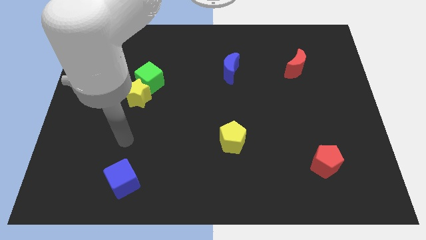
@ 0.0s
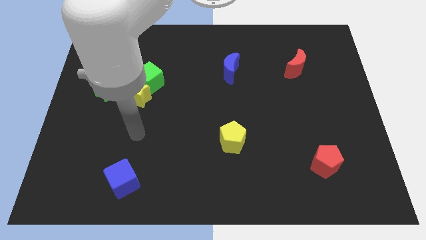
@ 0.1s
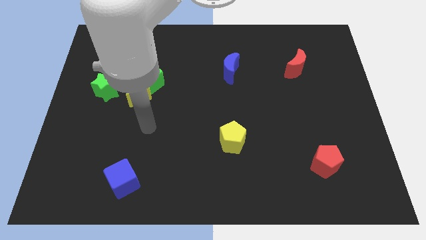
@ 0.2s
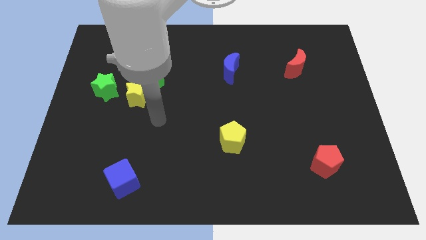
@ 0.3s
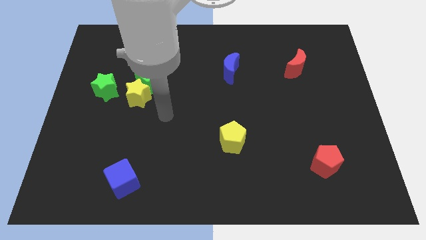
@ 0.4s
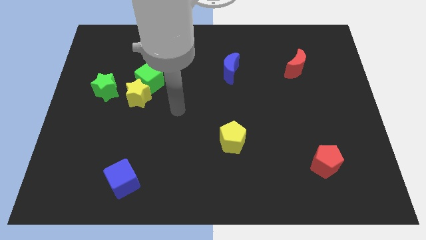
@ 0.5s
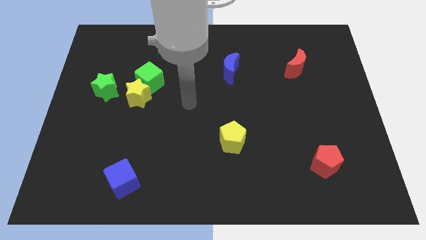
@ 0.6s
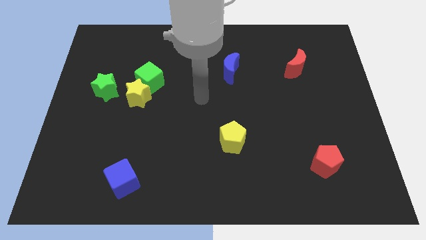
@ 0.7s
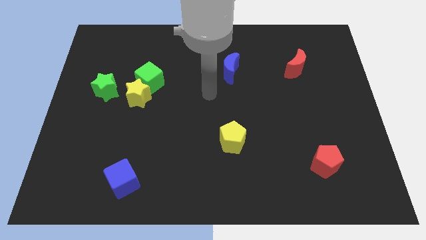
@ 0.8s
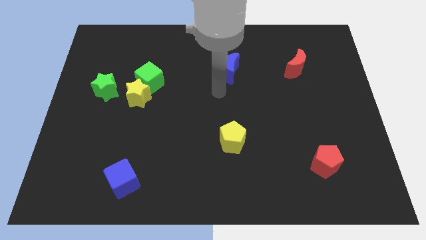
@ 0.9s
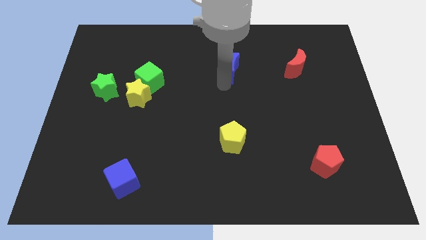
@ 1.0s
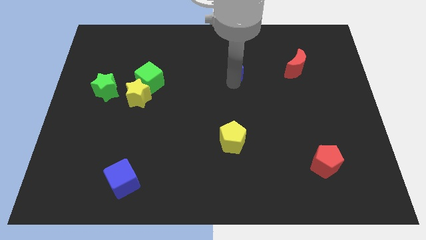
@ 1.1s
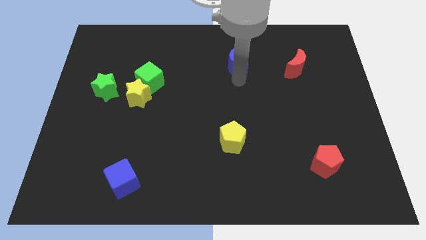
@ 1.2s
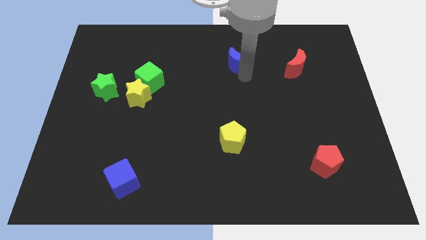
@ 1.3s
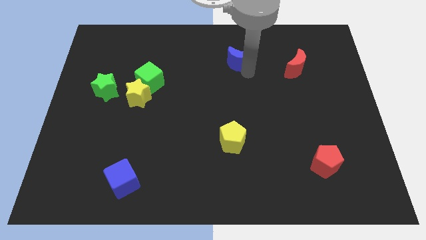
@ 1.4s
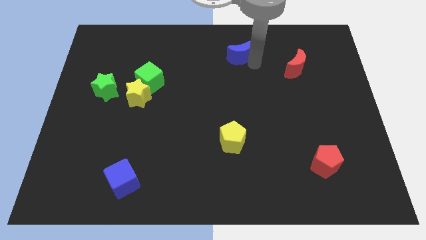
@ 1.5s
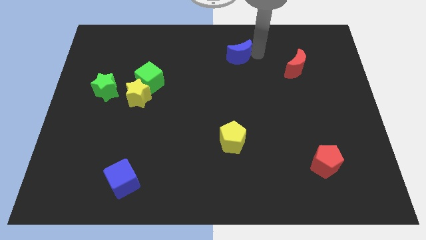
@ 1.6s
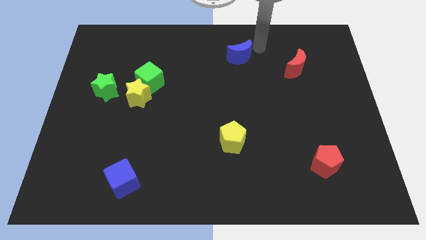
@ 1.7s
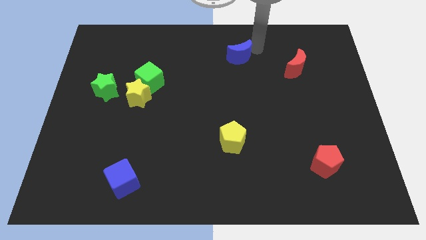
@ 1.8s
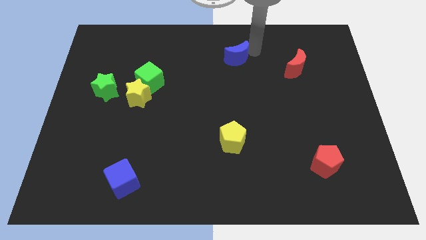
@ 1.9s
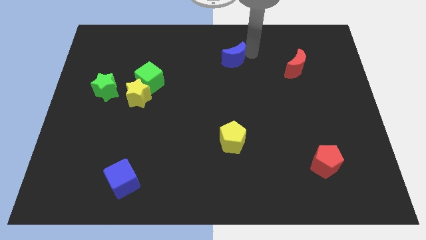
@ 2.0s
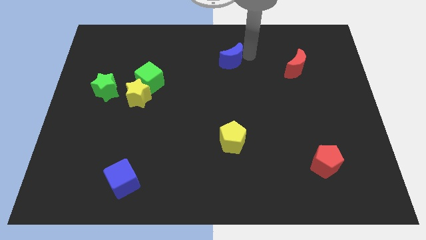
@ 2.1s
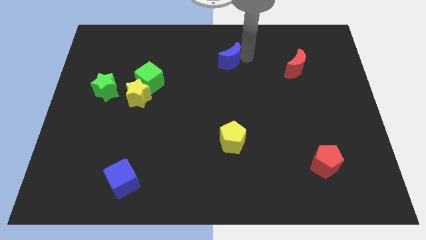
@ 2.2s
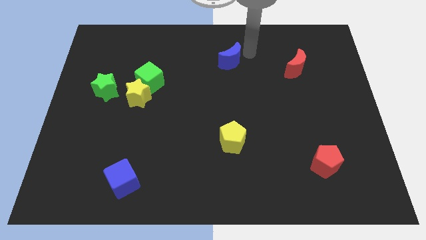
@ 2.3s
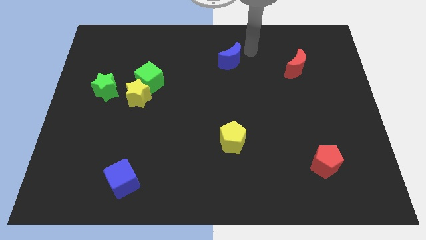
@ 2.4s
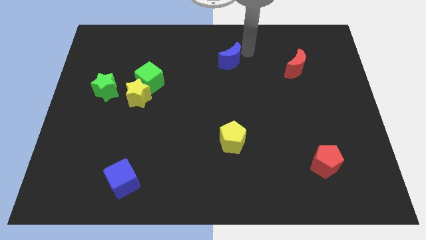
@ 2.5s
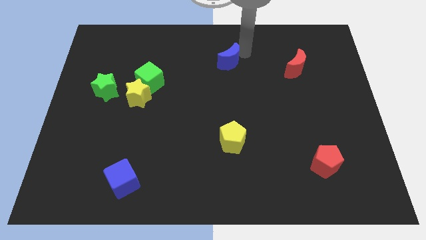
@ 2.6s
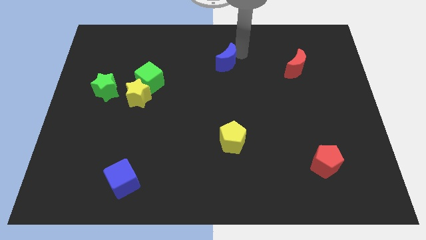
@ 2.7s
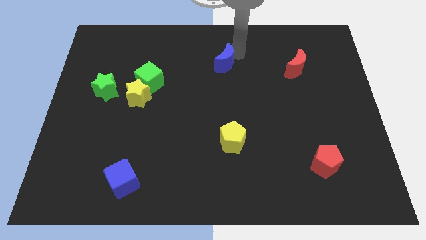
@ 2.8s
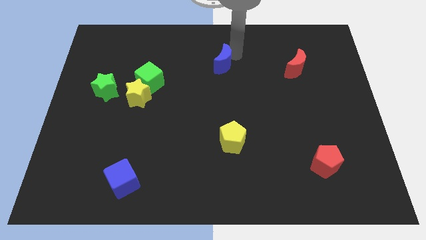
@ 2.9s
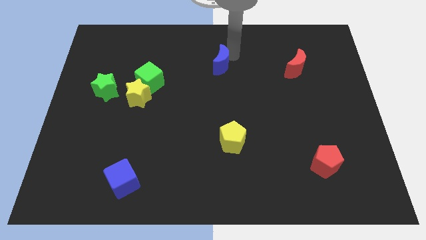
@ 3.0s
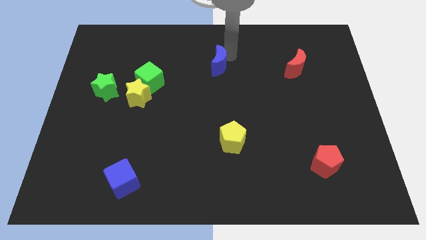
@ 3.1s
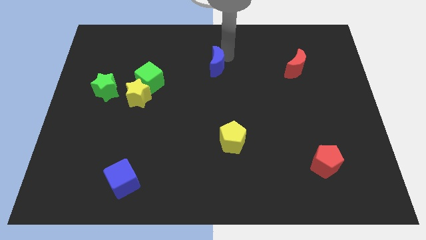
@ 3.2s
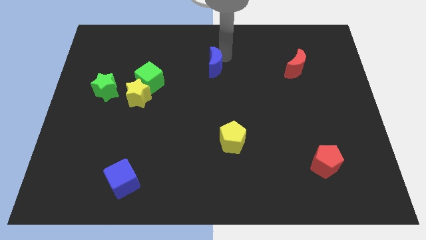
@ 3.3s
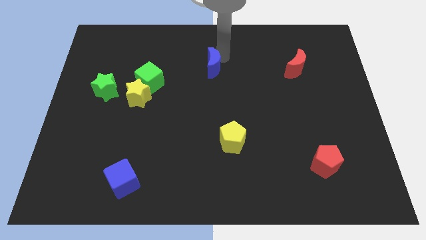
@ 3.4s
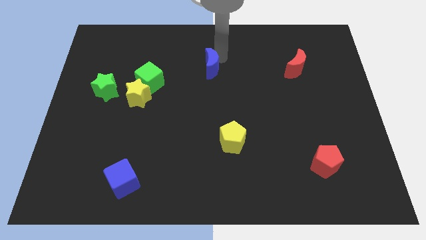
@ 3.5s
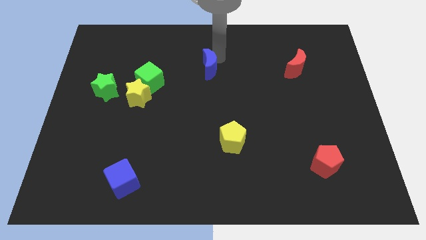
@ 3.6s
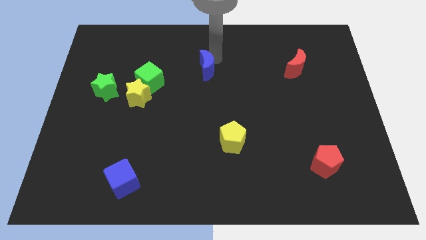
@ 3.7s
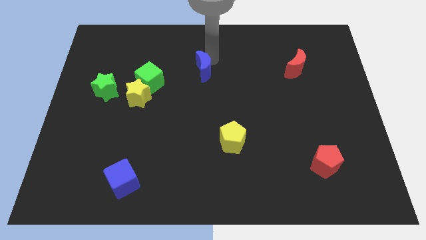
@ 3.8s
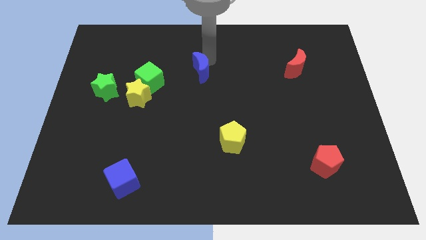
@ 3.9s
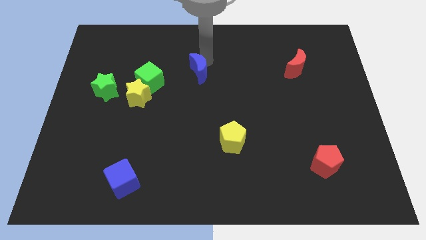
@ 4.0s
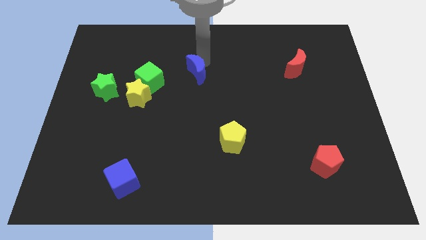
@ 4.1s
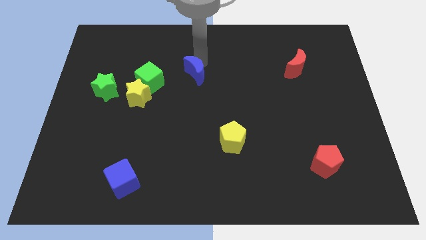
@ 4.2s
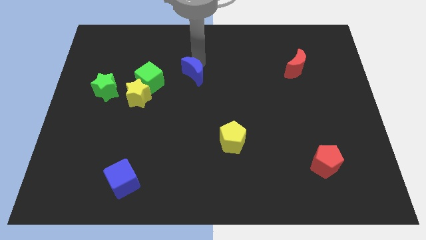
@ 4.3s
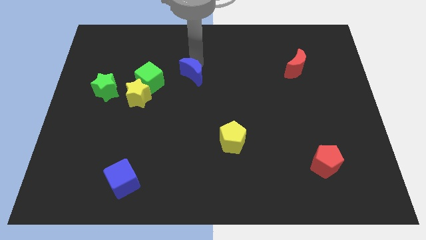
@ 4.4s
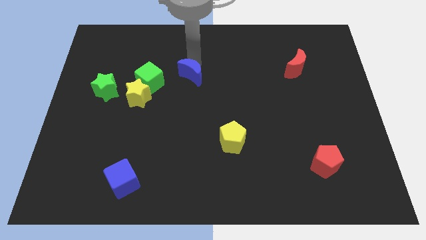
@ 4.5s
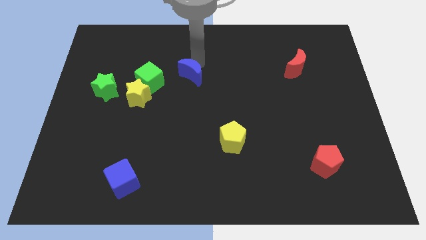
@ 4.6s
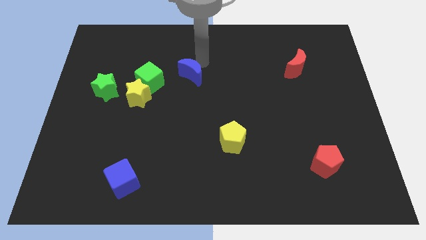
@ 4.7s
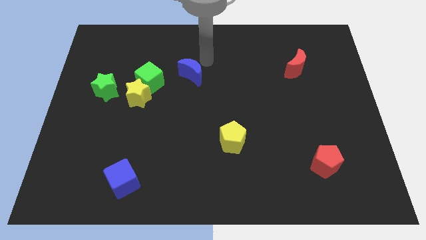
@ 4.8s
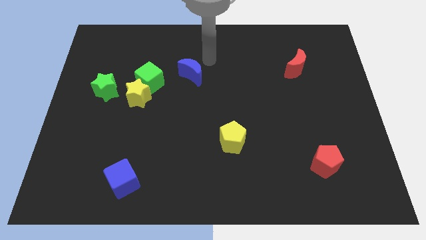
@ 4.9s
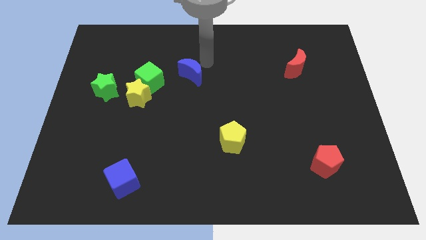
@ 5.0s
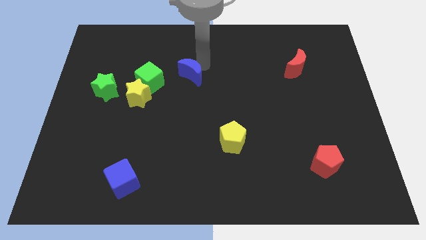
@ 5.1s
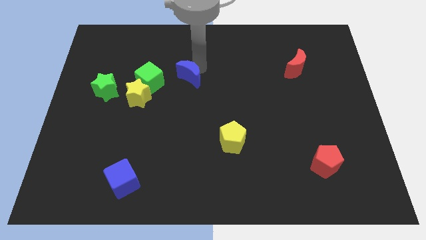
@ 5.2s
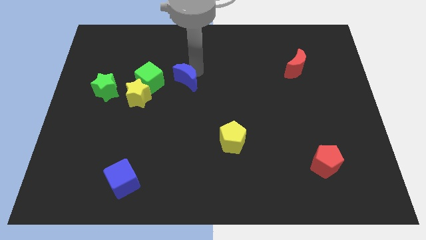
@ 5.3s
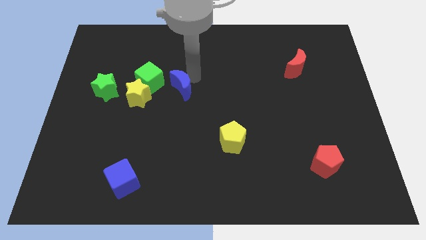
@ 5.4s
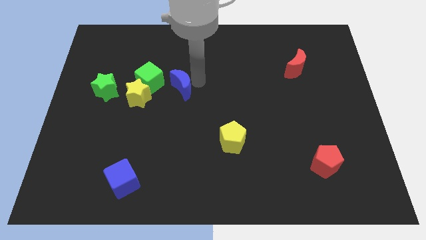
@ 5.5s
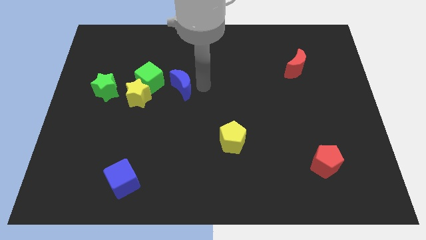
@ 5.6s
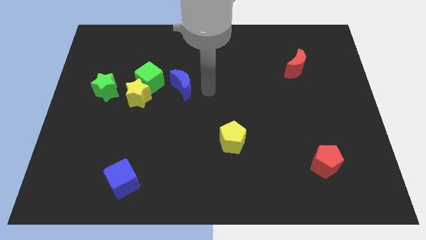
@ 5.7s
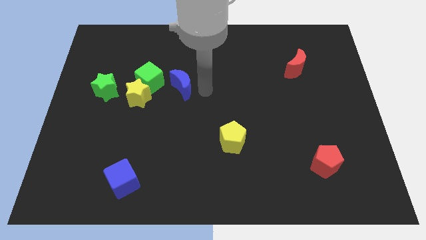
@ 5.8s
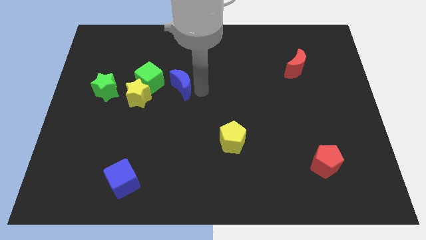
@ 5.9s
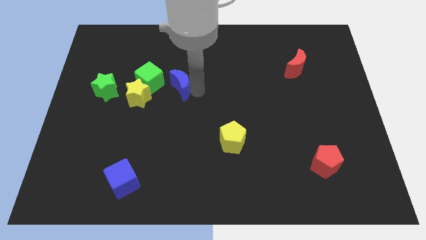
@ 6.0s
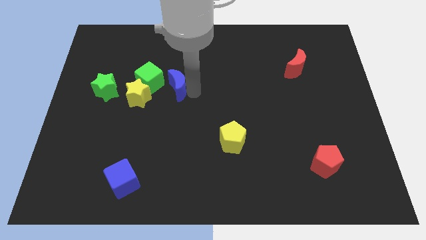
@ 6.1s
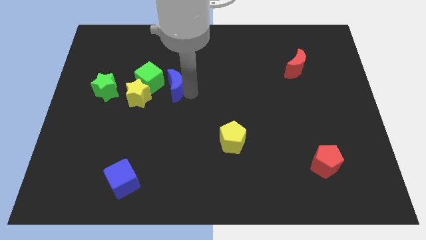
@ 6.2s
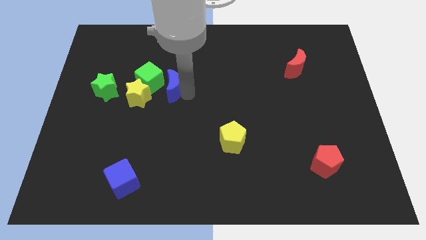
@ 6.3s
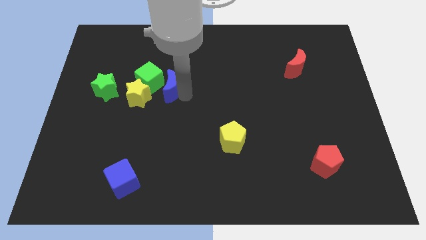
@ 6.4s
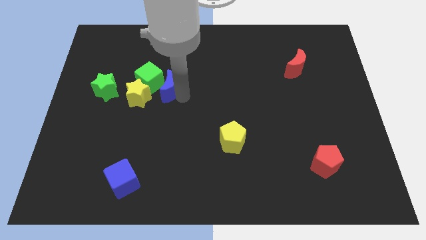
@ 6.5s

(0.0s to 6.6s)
put the blue moon close to the green cube

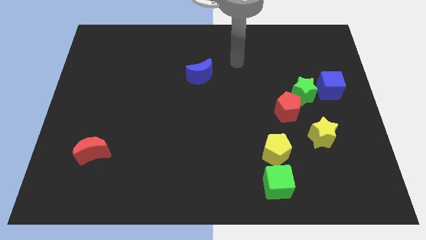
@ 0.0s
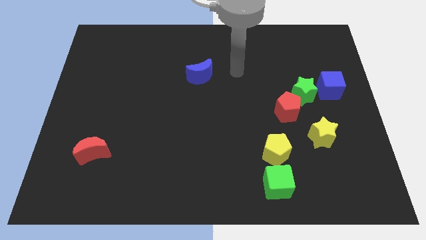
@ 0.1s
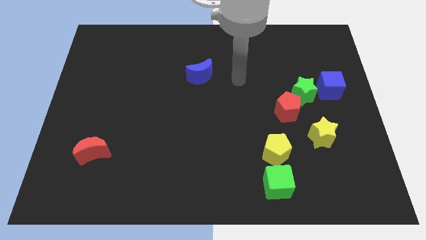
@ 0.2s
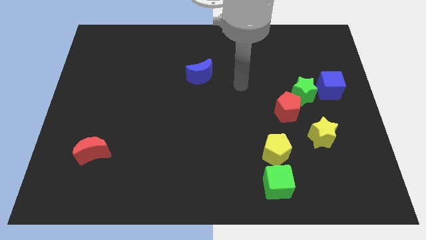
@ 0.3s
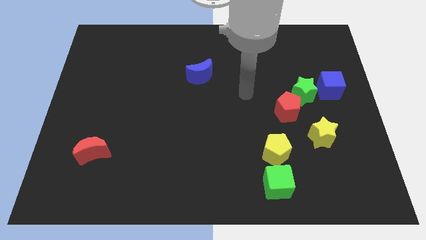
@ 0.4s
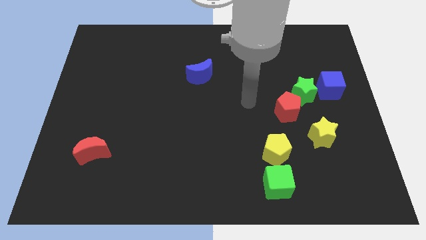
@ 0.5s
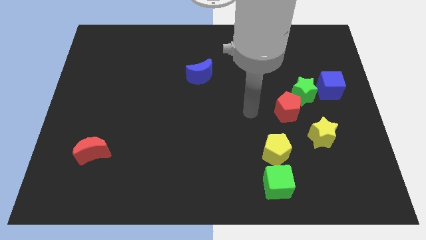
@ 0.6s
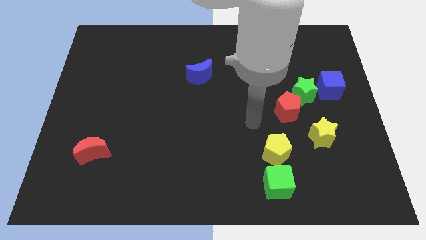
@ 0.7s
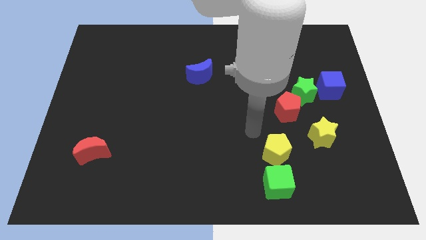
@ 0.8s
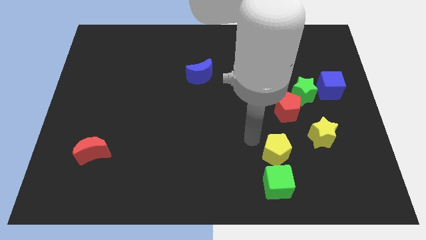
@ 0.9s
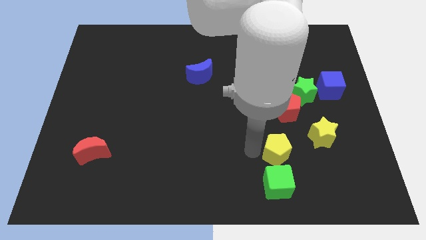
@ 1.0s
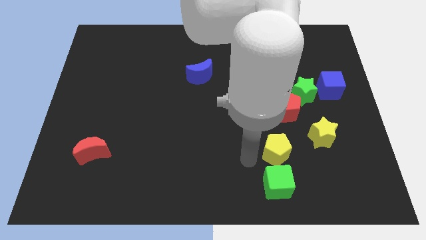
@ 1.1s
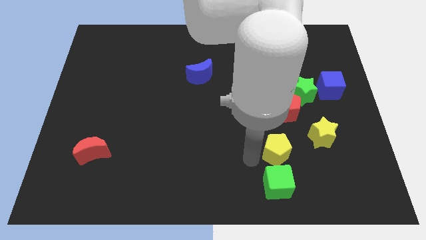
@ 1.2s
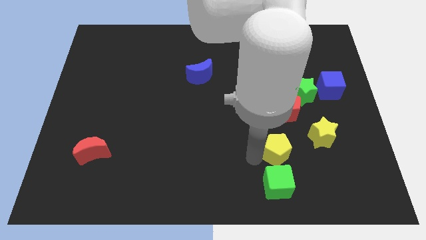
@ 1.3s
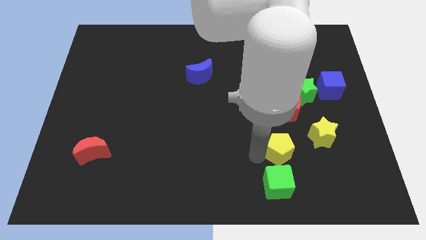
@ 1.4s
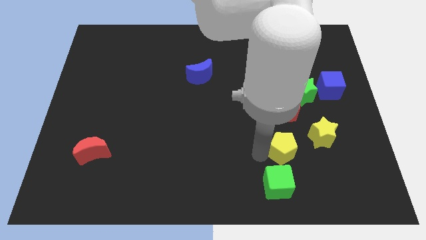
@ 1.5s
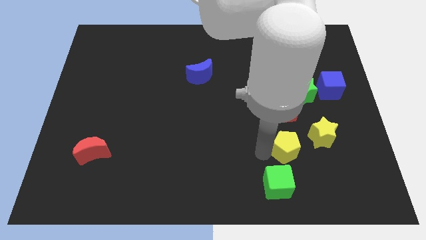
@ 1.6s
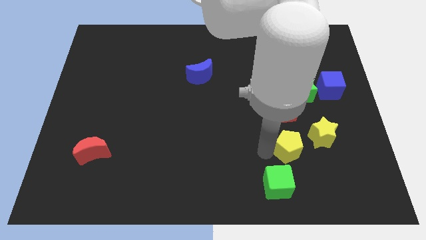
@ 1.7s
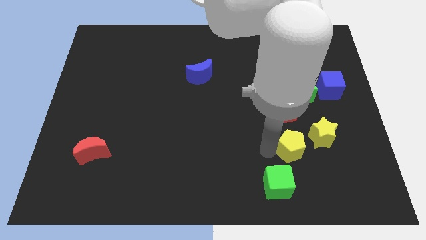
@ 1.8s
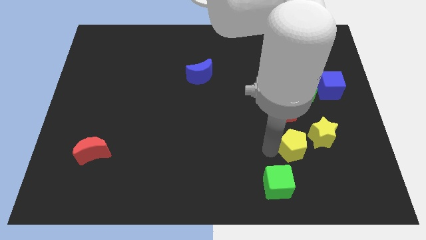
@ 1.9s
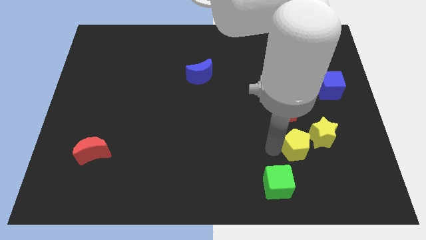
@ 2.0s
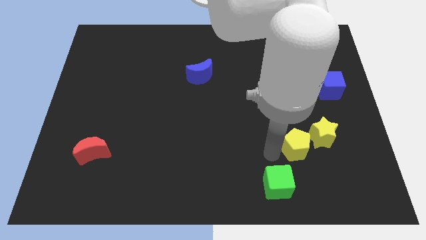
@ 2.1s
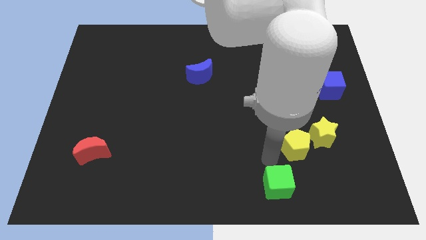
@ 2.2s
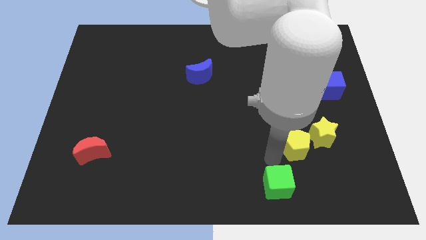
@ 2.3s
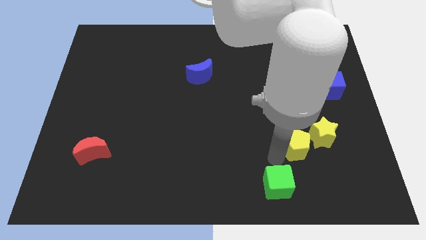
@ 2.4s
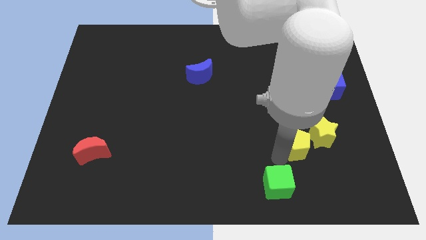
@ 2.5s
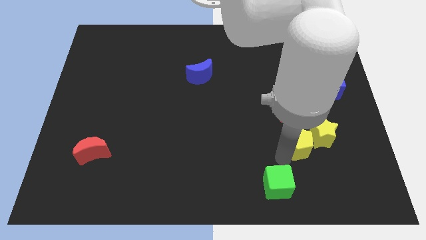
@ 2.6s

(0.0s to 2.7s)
move the yellow pentagon close to the yellow star
